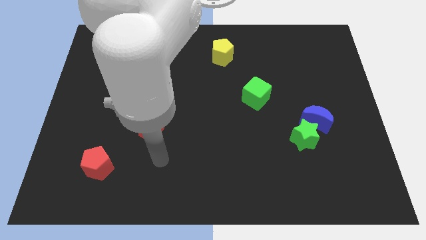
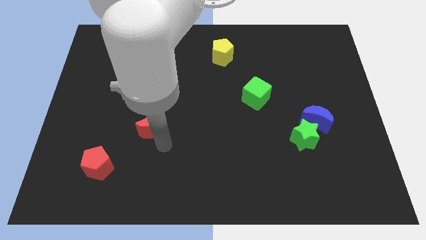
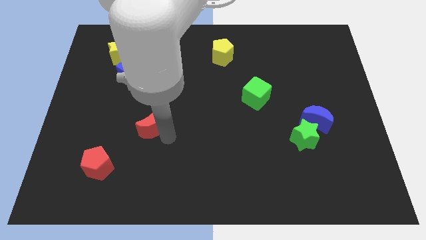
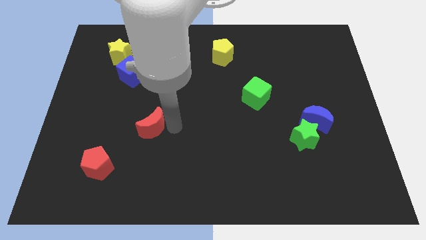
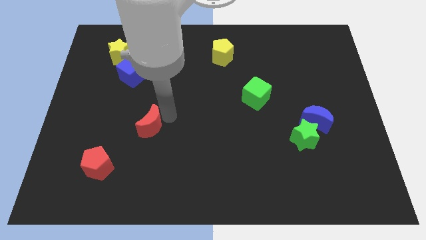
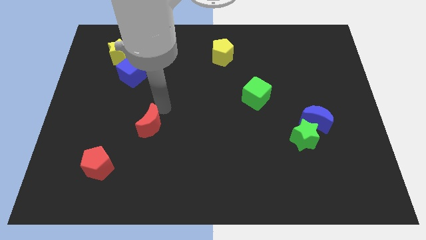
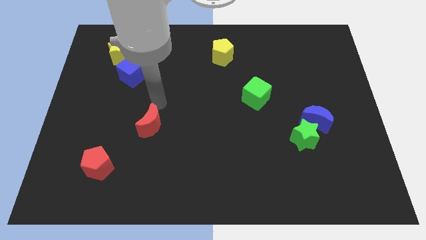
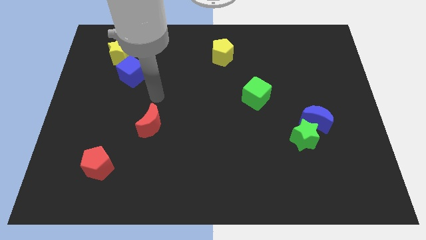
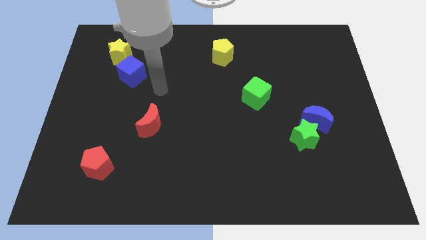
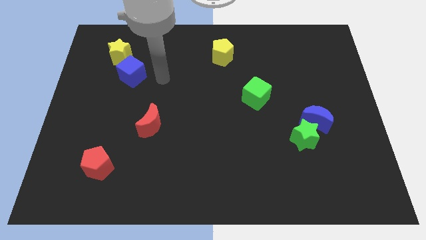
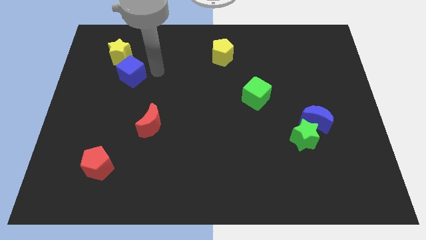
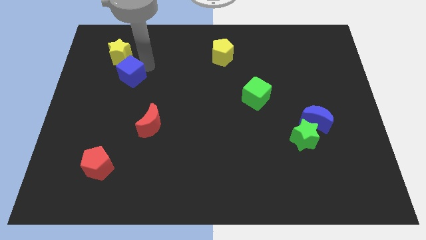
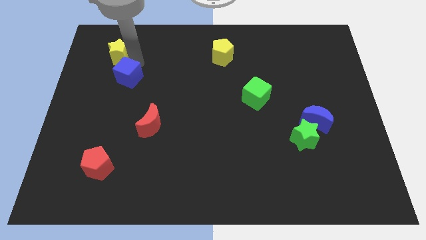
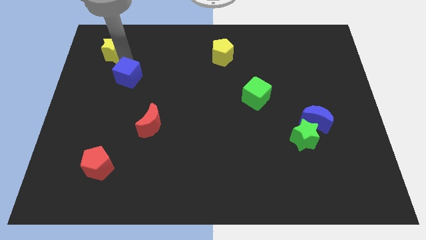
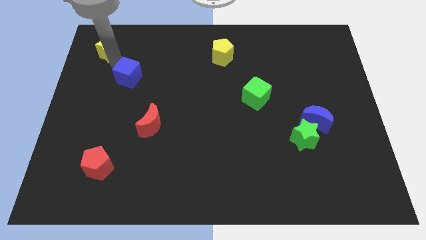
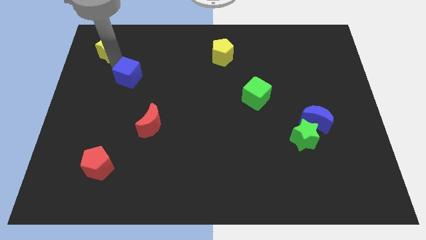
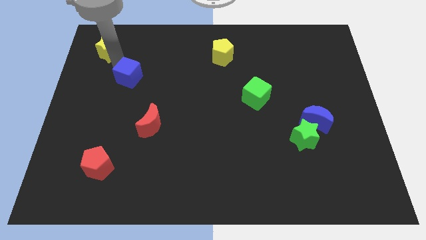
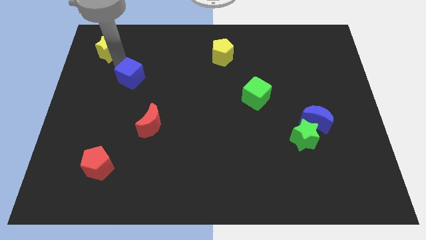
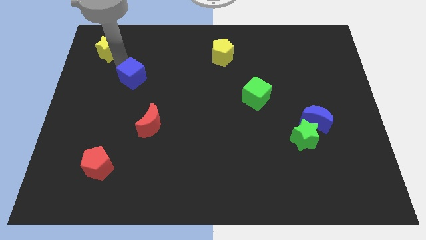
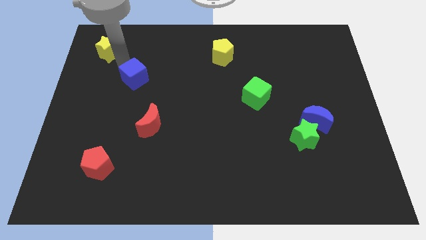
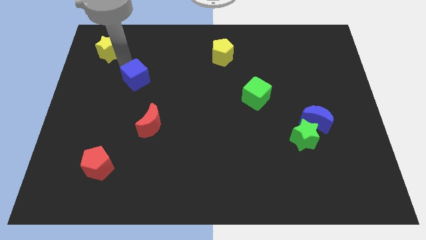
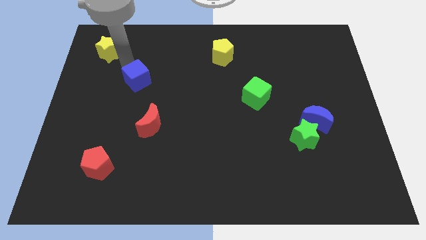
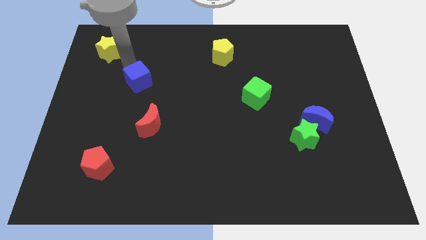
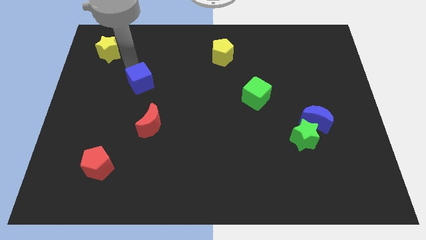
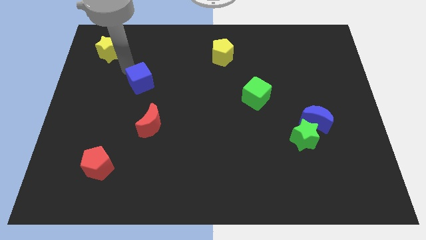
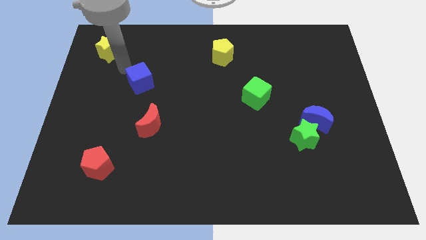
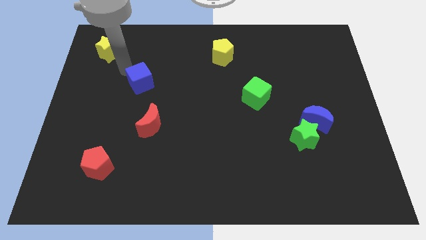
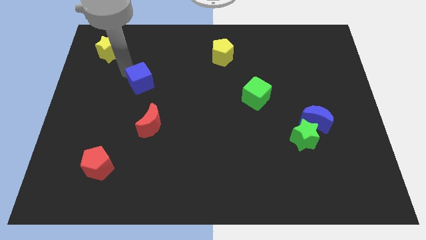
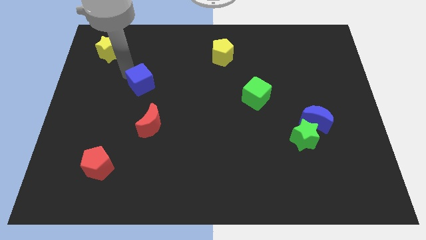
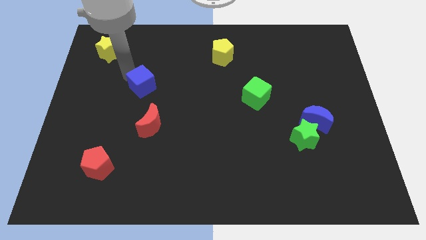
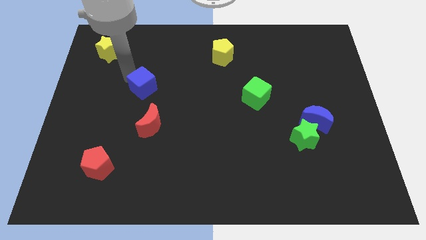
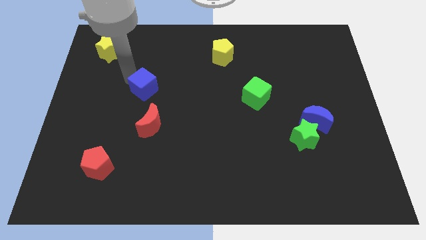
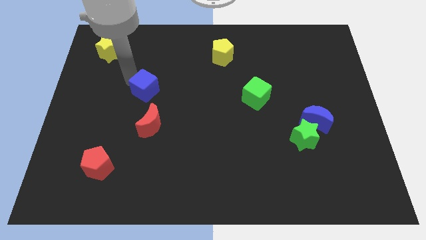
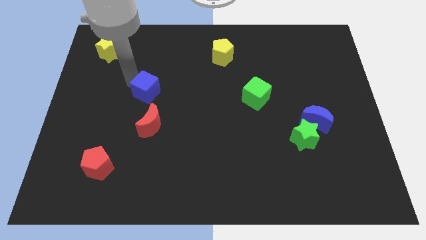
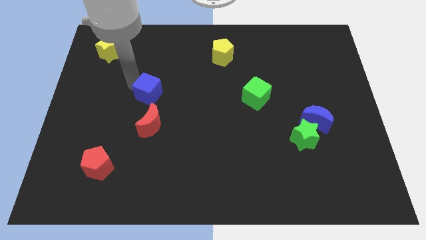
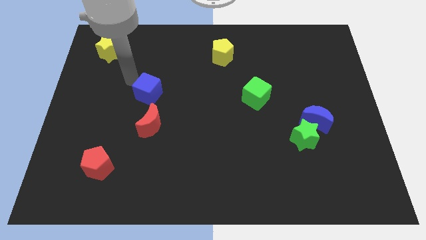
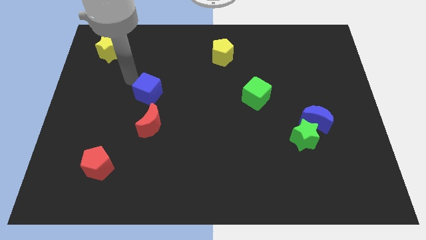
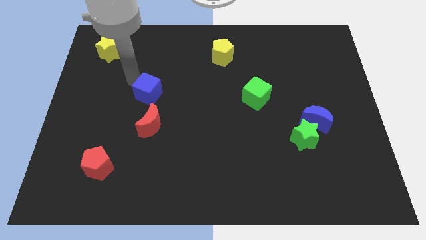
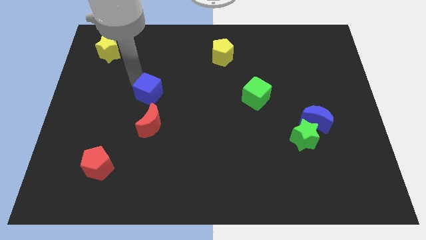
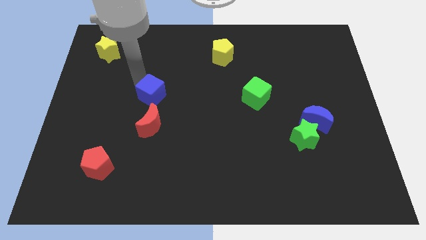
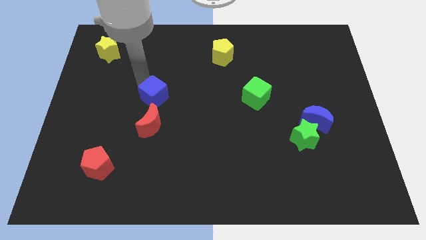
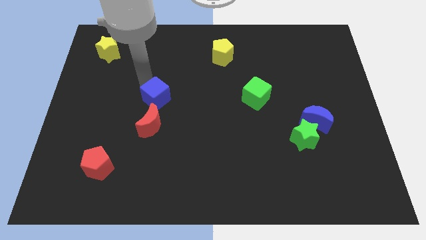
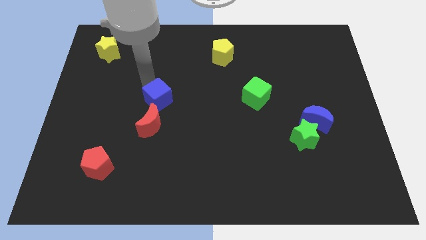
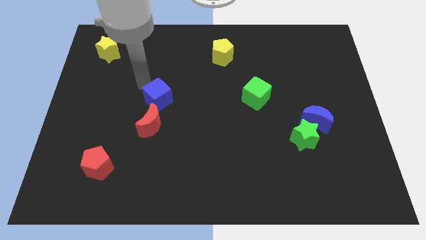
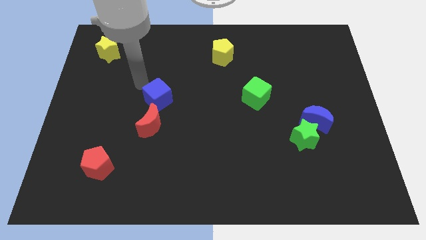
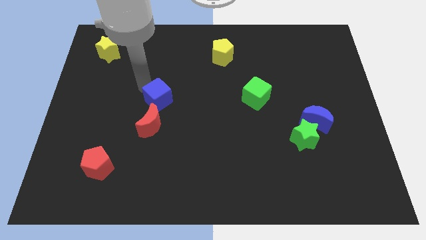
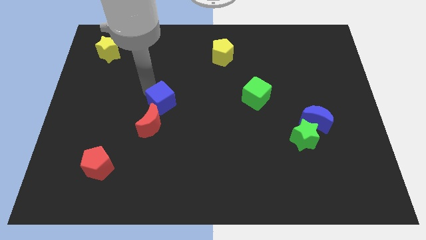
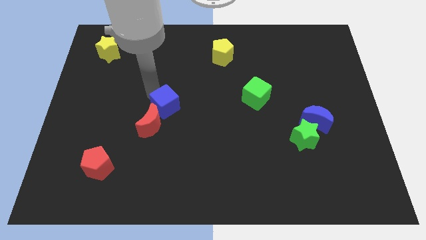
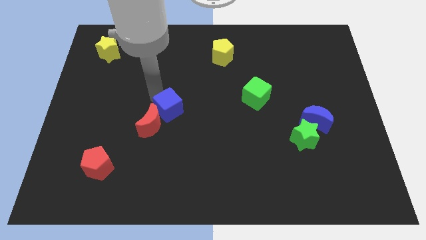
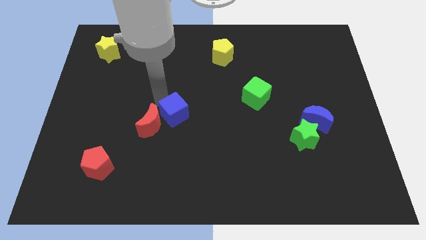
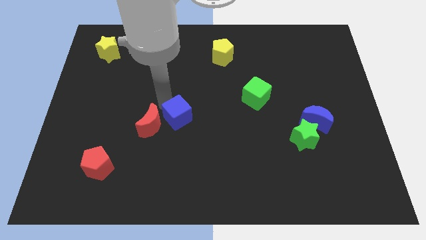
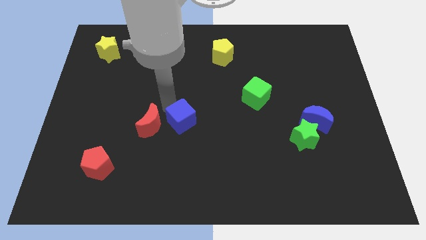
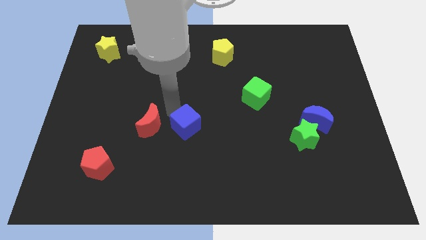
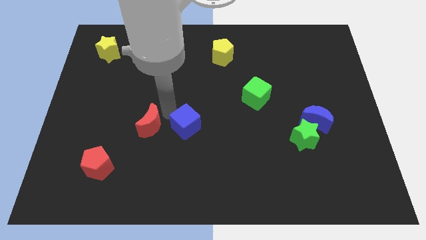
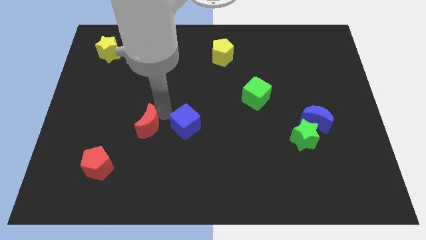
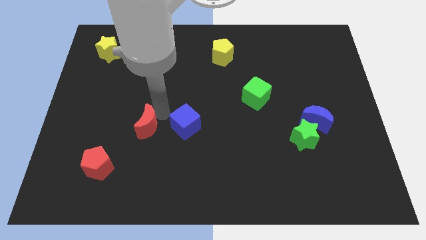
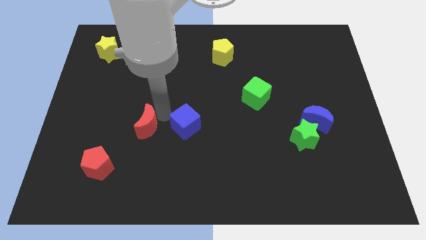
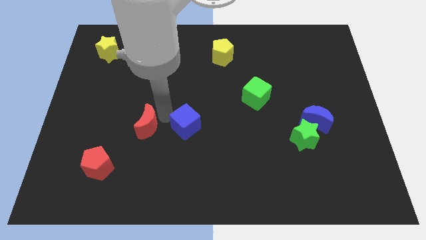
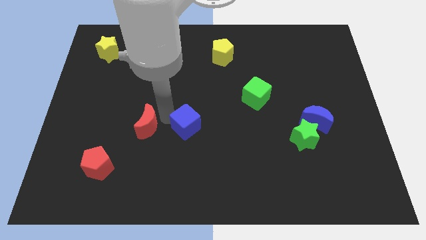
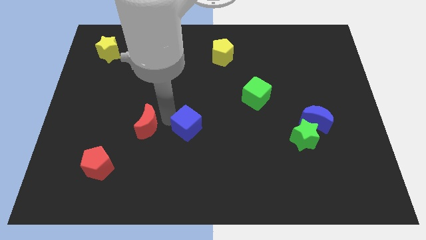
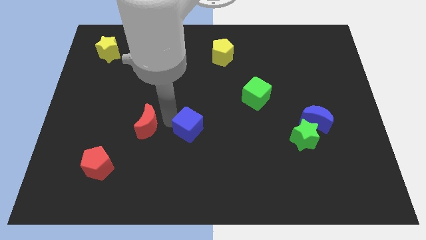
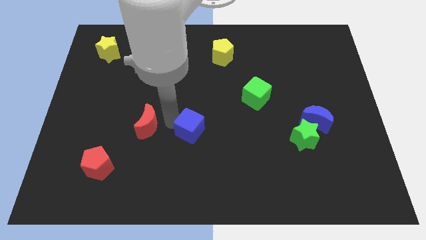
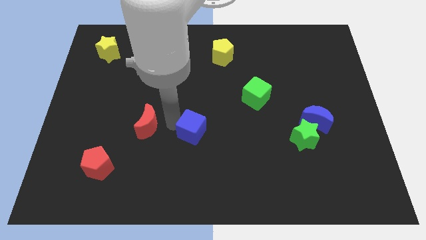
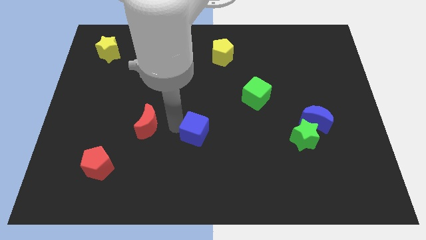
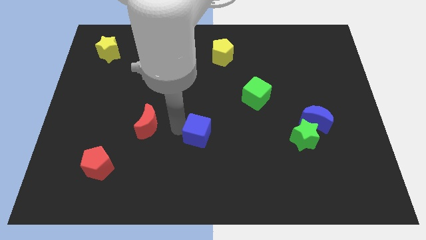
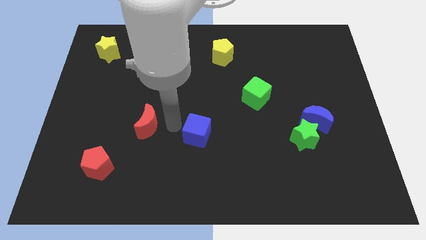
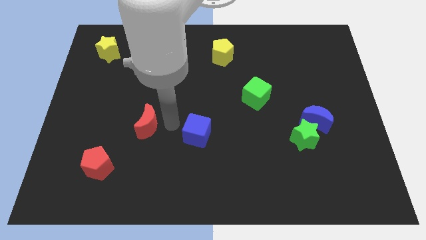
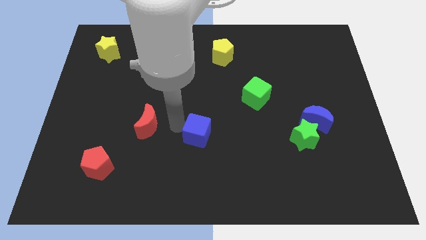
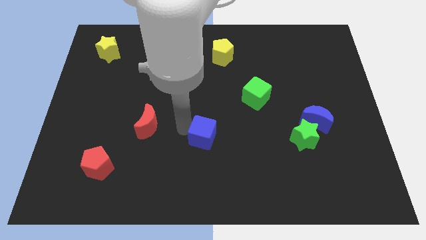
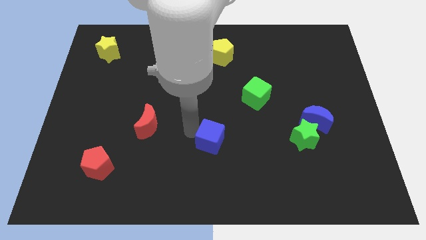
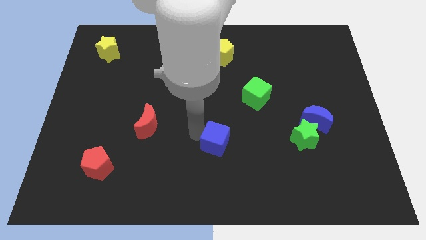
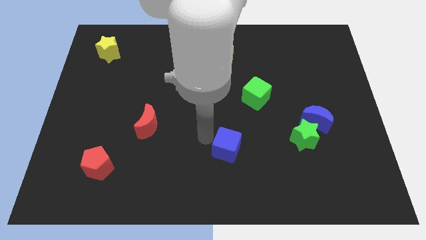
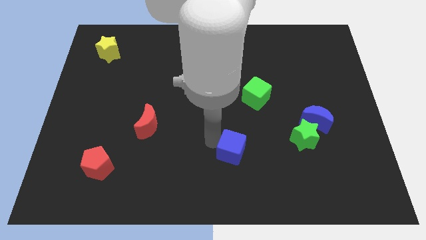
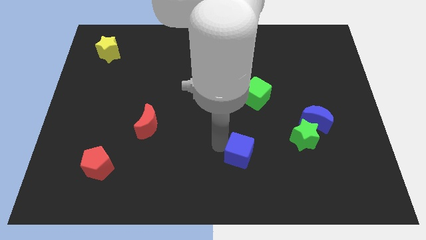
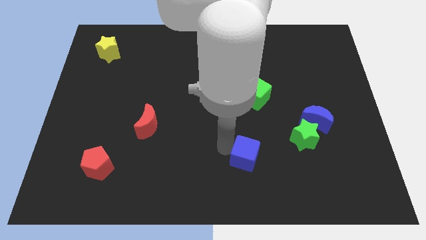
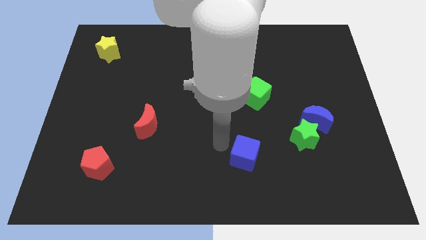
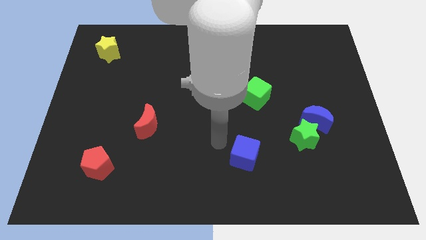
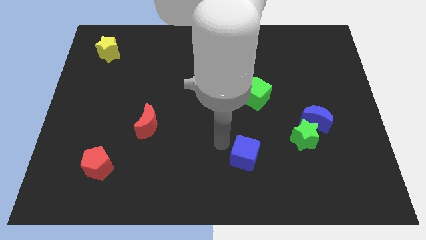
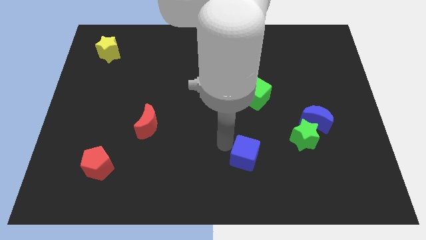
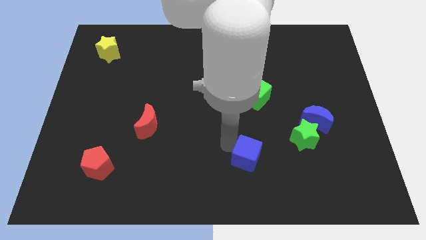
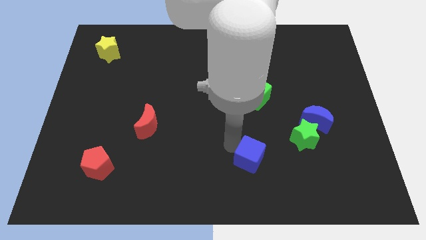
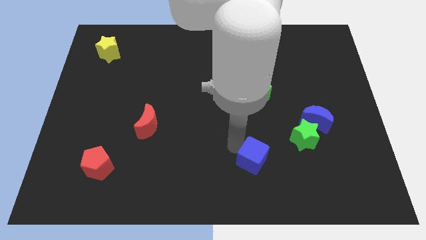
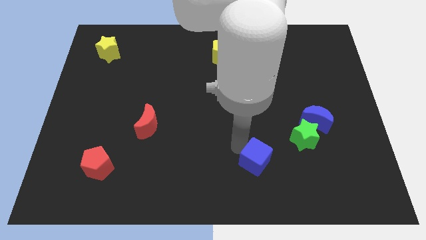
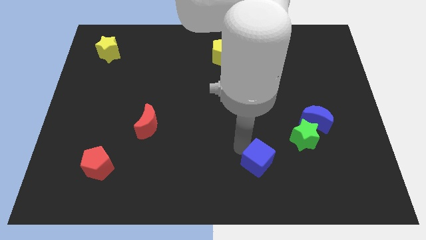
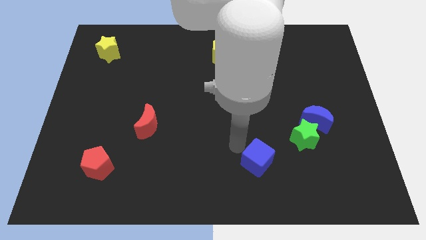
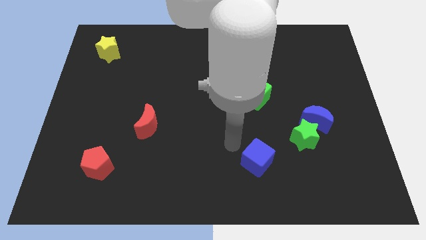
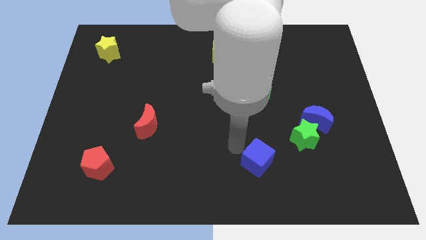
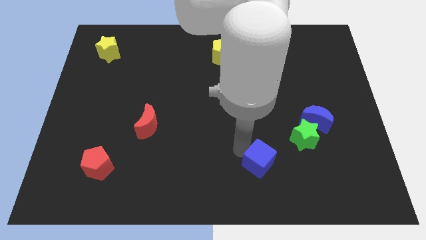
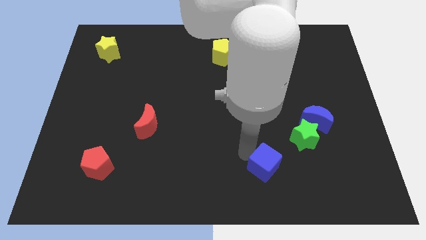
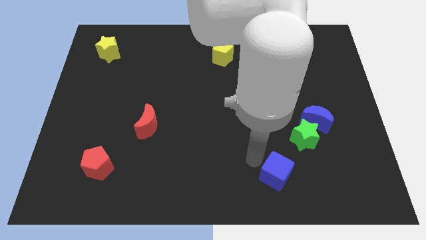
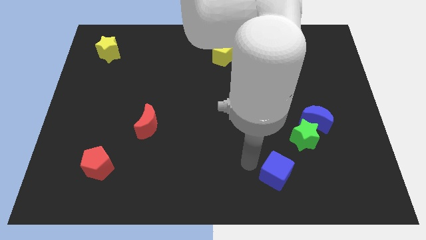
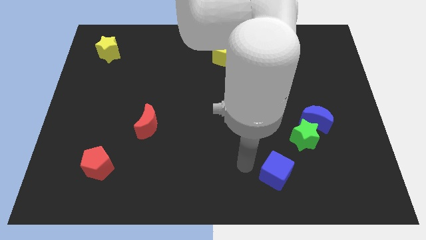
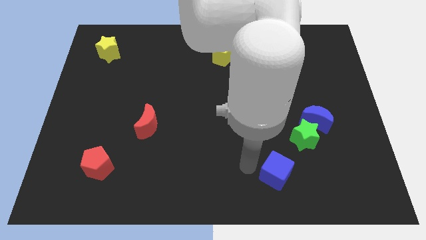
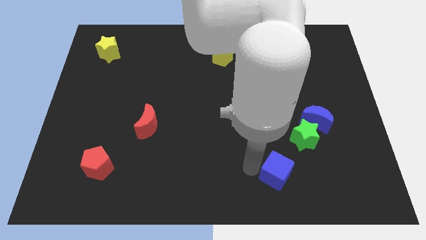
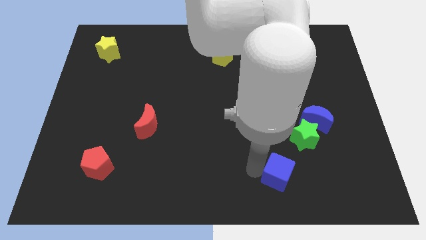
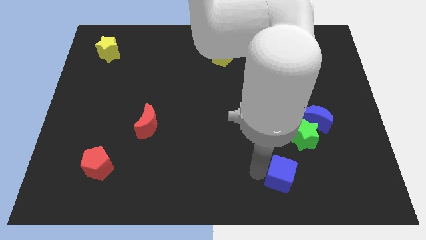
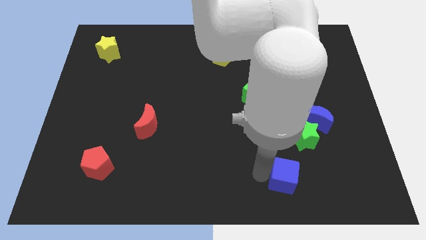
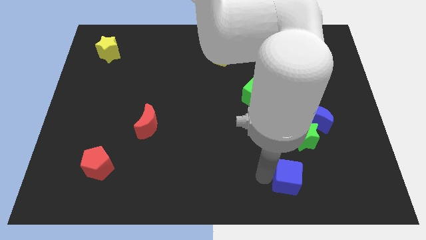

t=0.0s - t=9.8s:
put the blue cube to the bottom of the green star
